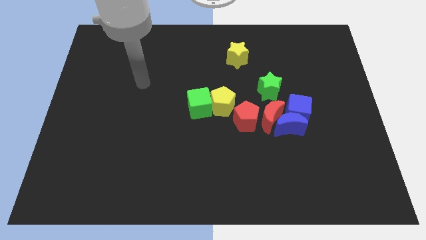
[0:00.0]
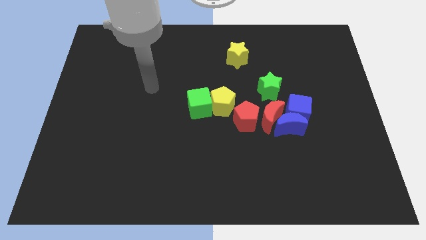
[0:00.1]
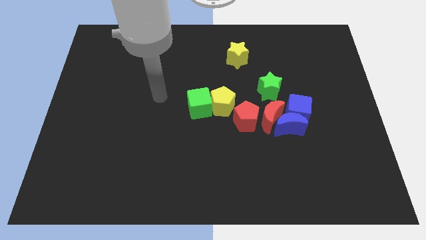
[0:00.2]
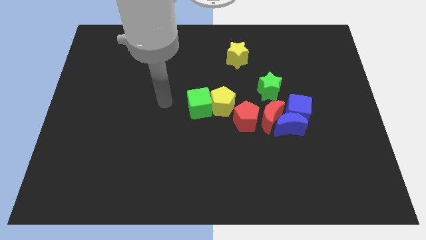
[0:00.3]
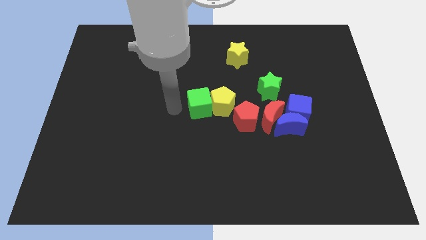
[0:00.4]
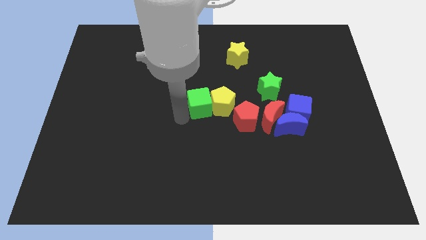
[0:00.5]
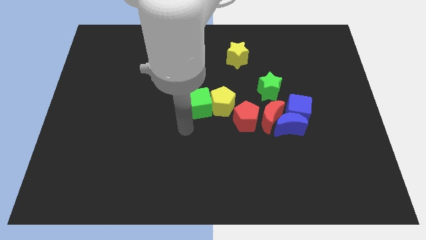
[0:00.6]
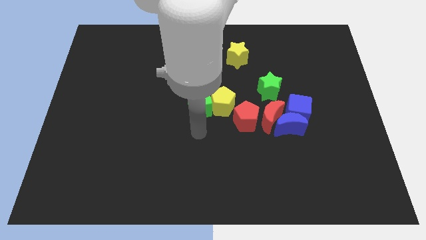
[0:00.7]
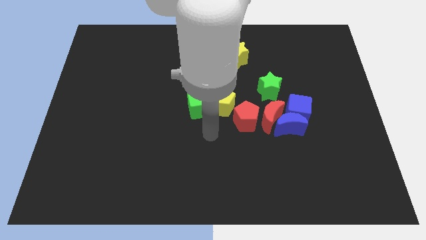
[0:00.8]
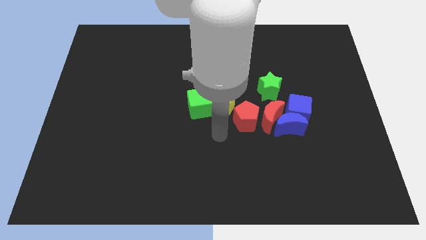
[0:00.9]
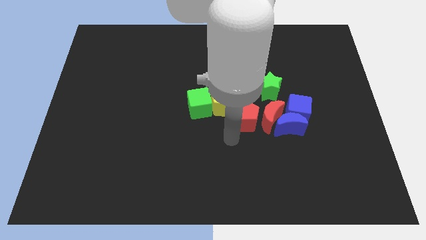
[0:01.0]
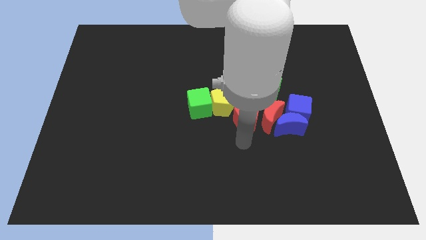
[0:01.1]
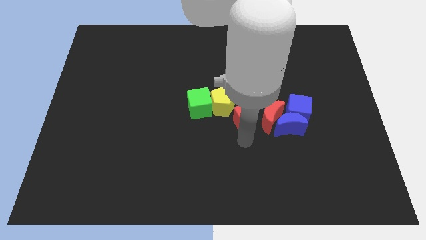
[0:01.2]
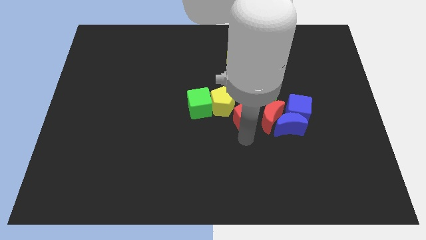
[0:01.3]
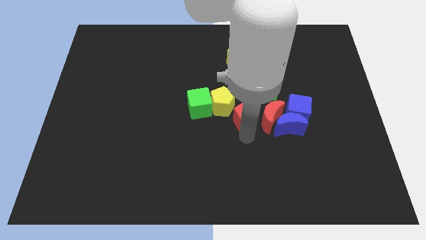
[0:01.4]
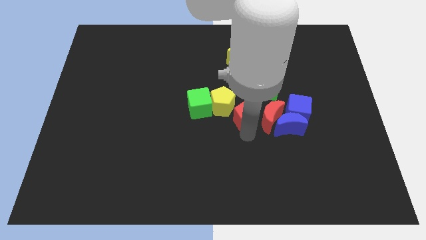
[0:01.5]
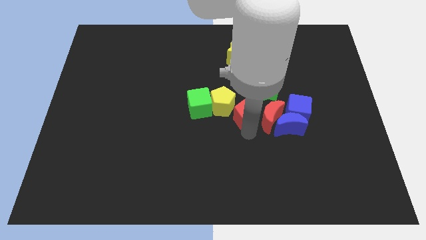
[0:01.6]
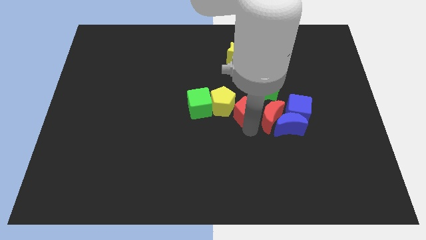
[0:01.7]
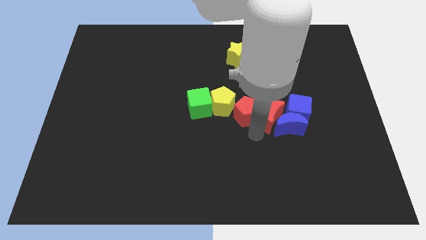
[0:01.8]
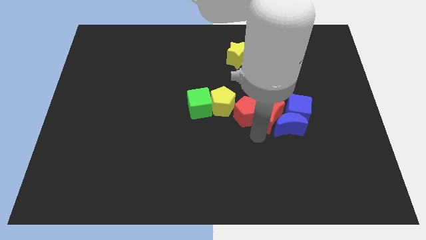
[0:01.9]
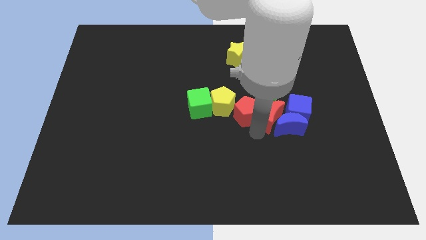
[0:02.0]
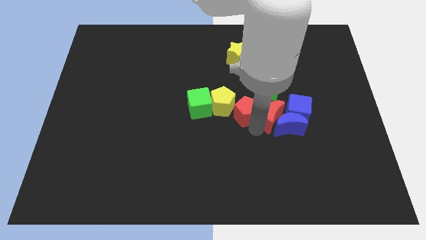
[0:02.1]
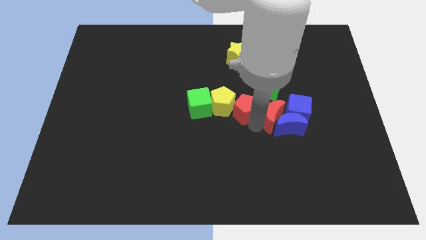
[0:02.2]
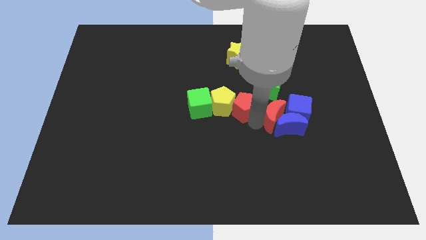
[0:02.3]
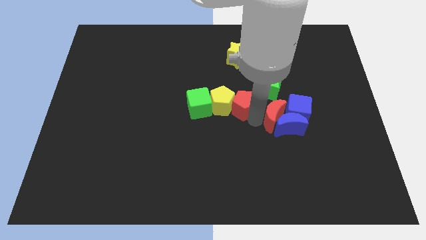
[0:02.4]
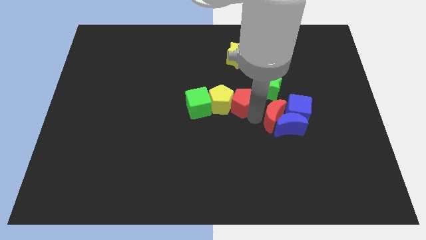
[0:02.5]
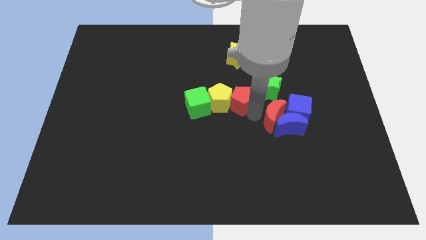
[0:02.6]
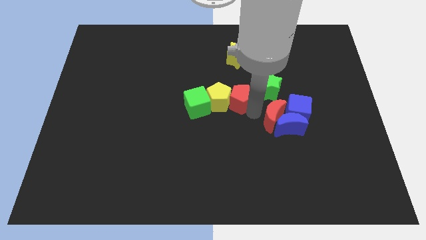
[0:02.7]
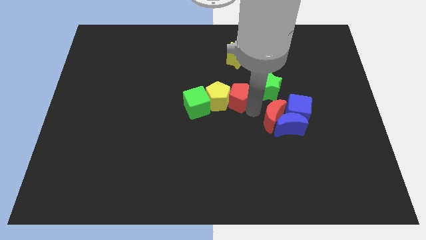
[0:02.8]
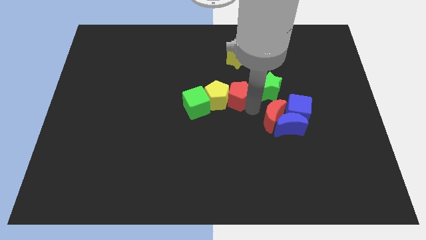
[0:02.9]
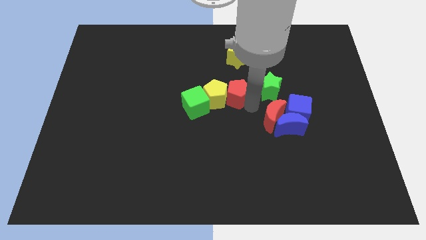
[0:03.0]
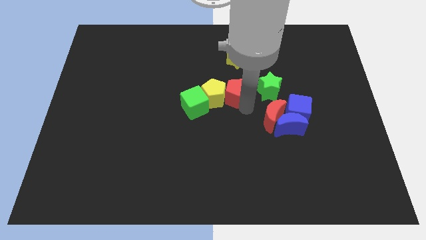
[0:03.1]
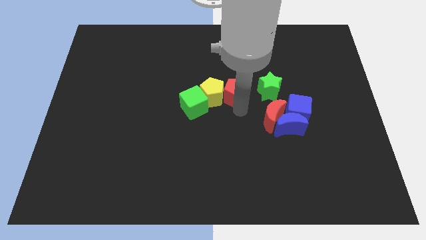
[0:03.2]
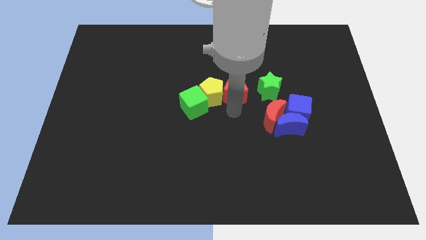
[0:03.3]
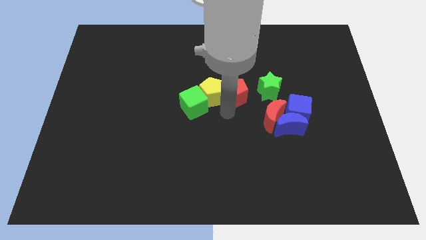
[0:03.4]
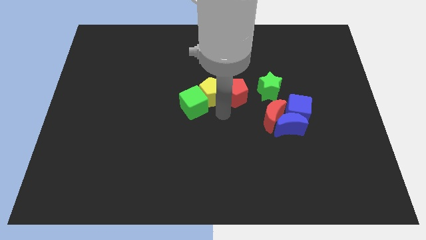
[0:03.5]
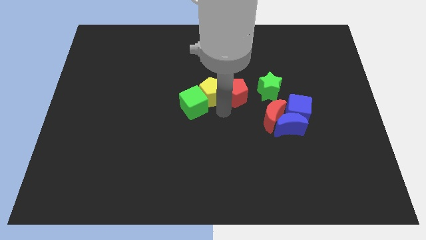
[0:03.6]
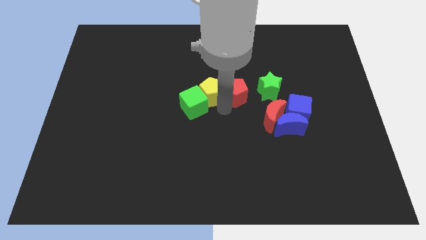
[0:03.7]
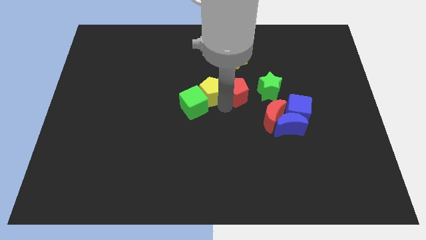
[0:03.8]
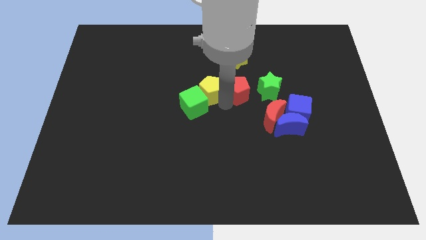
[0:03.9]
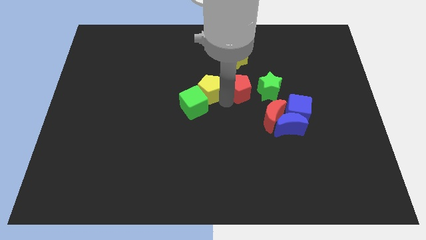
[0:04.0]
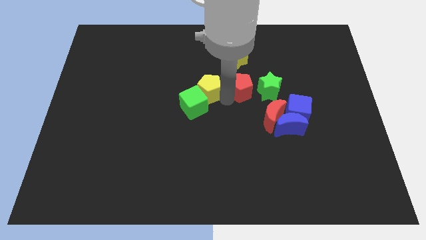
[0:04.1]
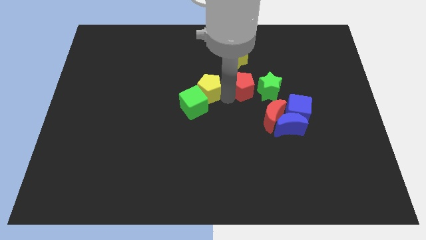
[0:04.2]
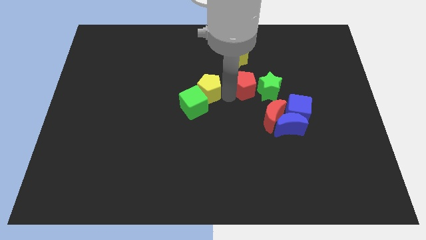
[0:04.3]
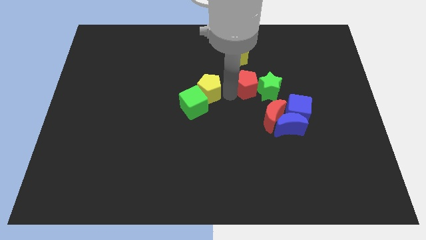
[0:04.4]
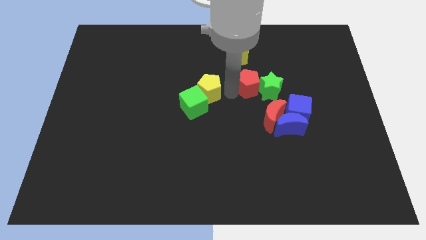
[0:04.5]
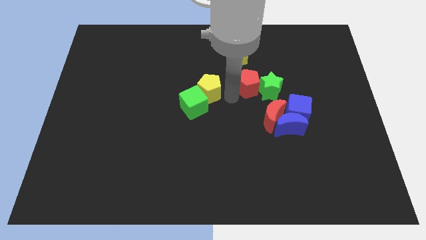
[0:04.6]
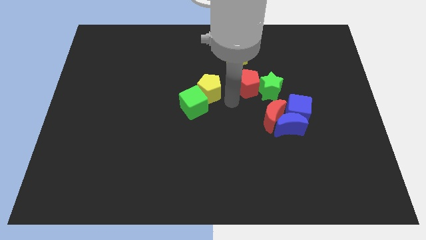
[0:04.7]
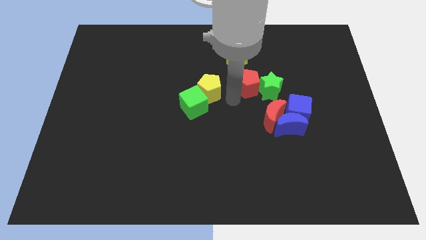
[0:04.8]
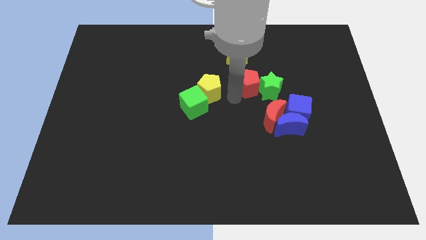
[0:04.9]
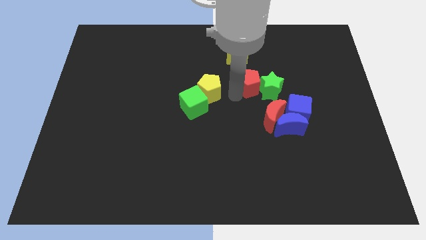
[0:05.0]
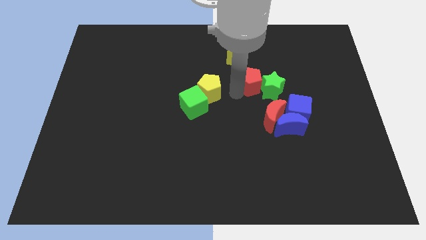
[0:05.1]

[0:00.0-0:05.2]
push the red pentagon somewhat upwards and to the right

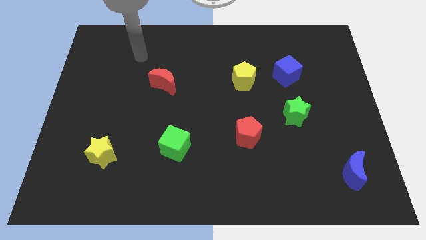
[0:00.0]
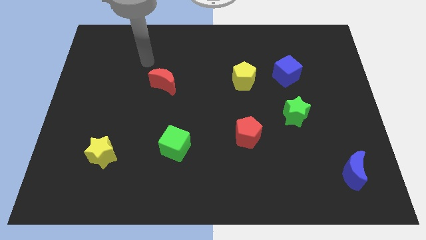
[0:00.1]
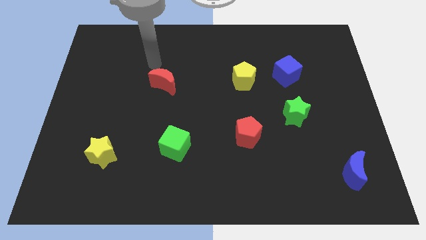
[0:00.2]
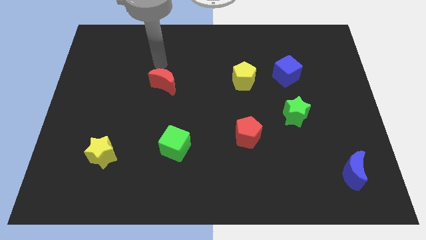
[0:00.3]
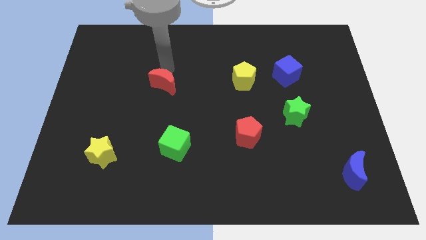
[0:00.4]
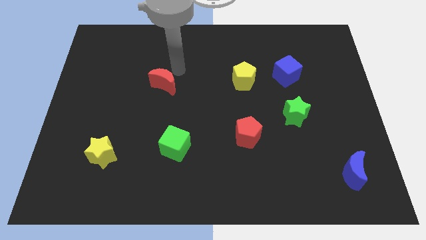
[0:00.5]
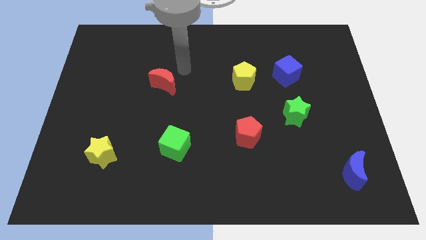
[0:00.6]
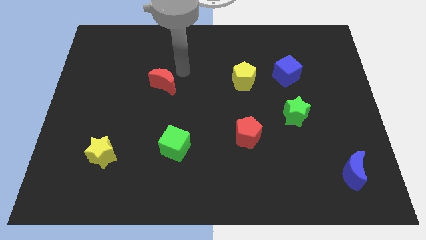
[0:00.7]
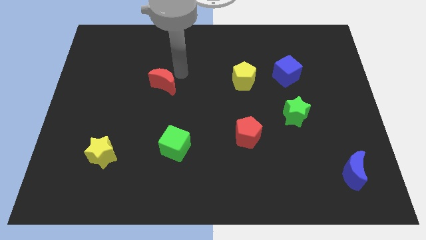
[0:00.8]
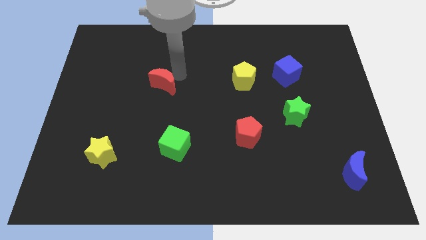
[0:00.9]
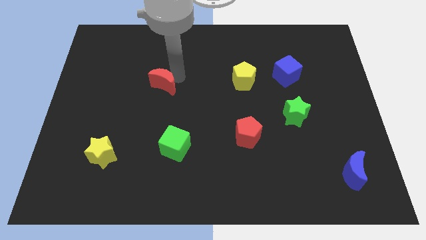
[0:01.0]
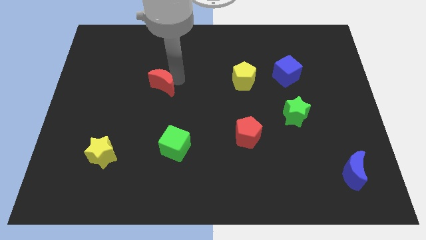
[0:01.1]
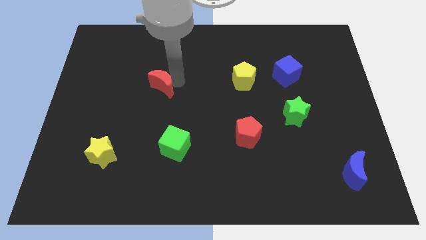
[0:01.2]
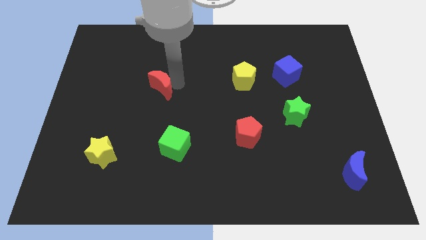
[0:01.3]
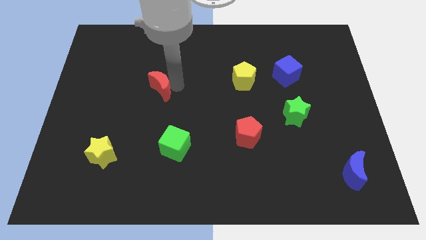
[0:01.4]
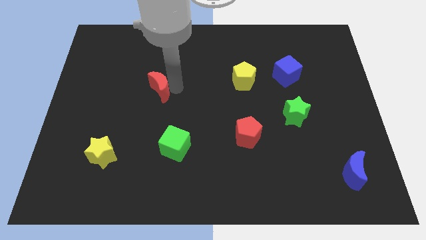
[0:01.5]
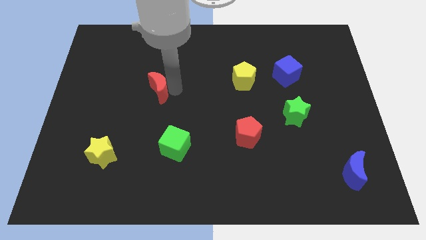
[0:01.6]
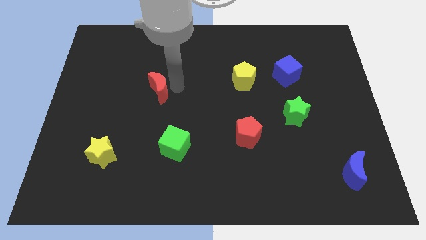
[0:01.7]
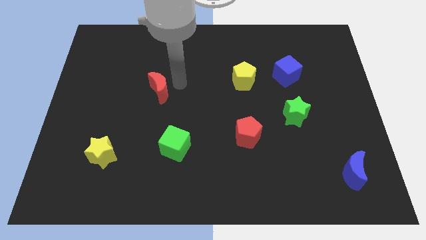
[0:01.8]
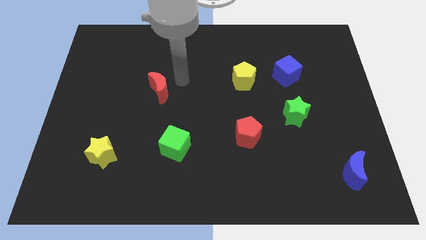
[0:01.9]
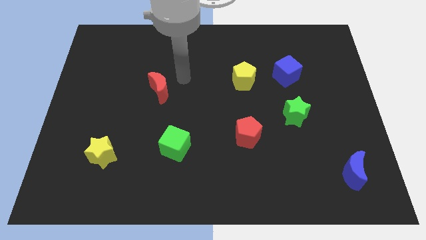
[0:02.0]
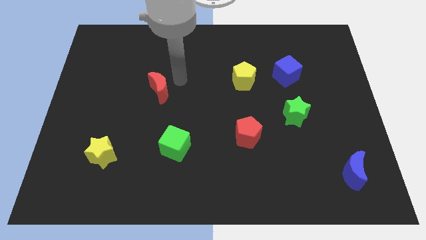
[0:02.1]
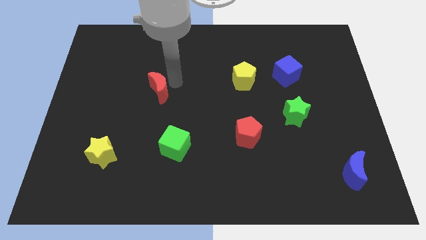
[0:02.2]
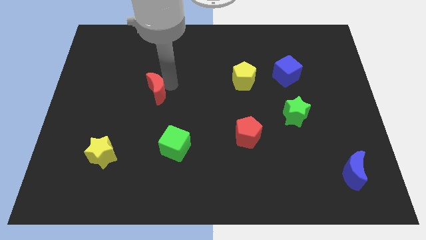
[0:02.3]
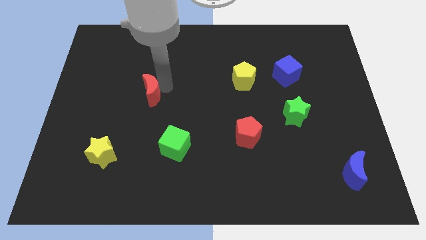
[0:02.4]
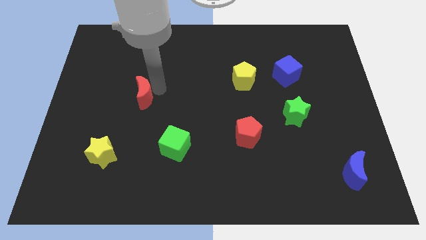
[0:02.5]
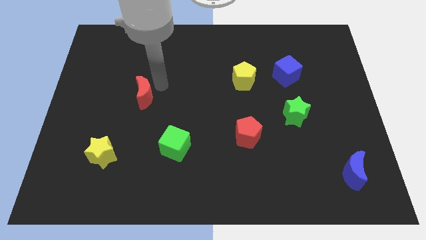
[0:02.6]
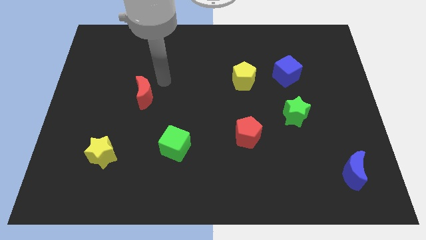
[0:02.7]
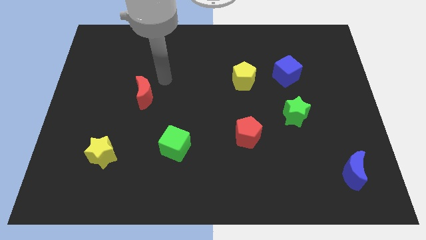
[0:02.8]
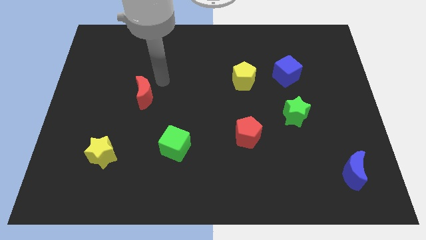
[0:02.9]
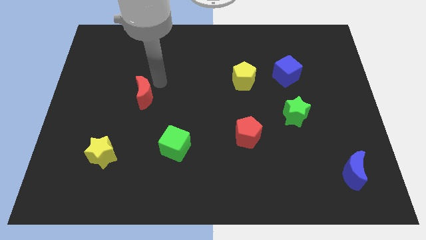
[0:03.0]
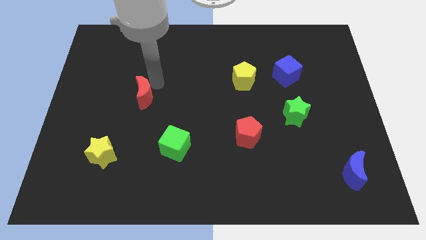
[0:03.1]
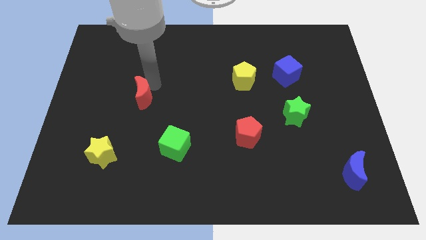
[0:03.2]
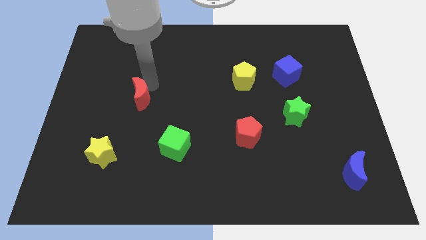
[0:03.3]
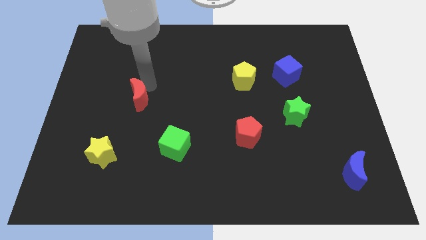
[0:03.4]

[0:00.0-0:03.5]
push the red moon downwards and to the left diagonally somewhat
